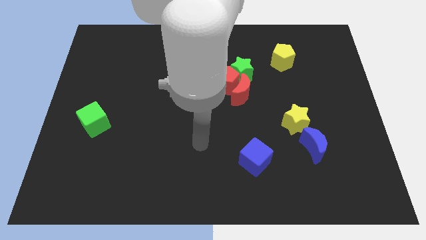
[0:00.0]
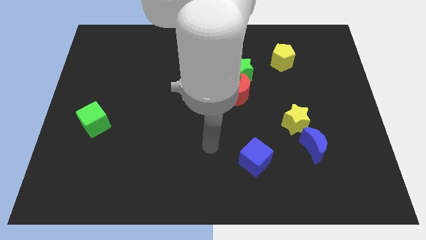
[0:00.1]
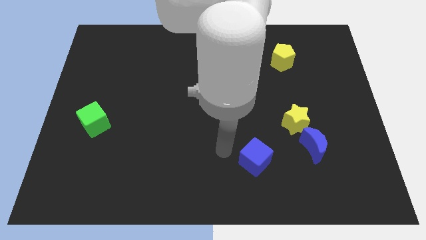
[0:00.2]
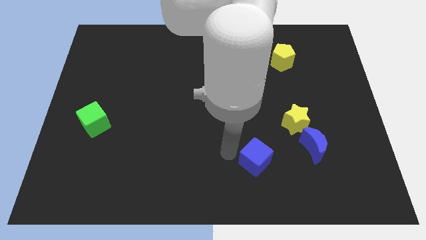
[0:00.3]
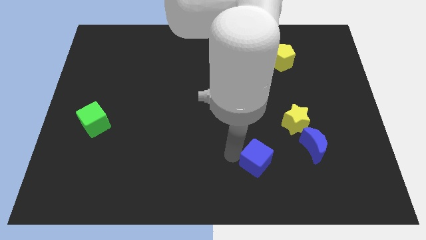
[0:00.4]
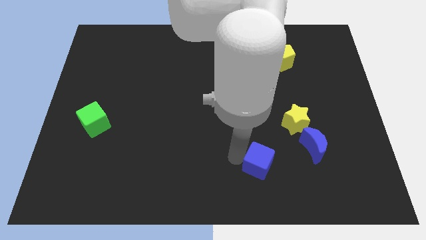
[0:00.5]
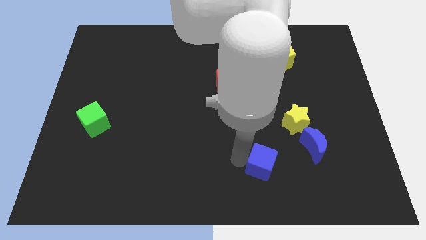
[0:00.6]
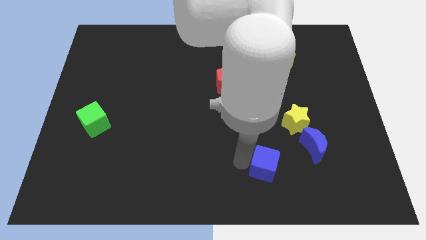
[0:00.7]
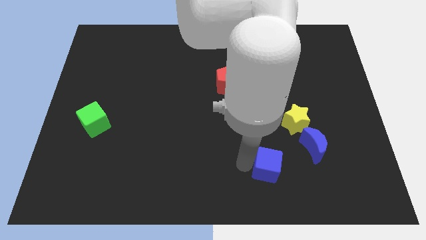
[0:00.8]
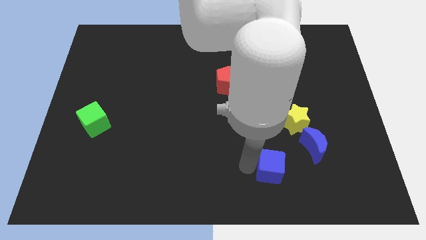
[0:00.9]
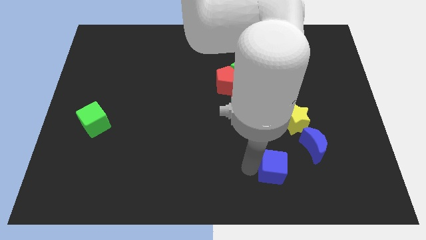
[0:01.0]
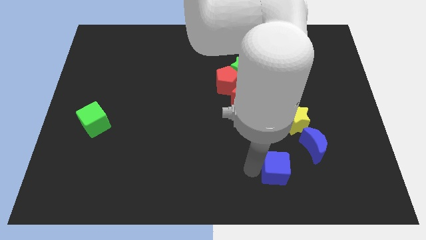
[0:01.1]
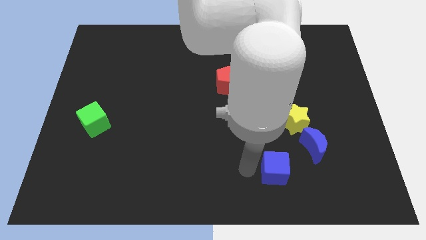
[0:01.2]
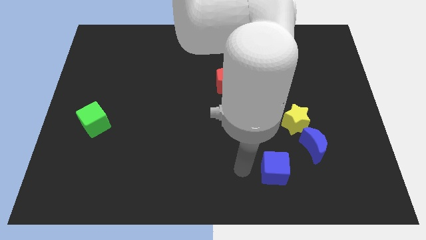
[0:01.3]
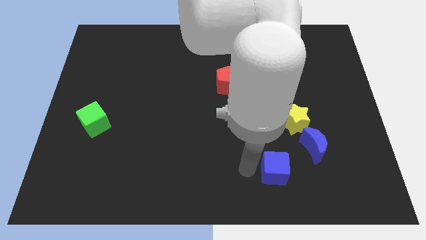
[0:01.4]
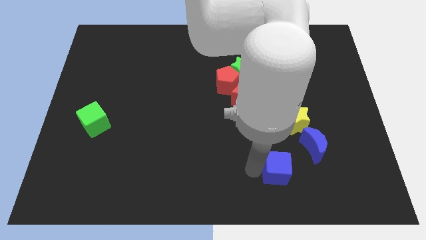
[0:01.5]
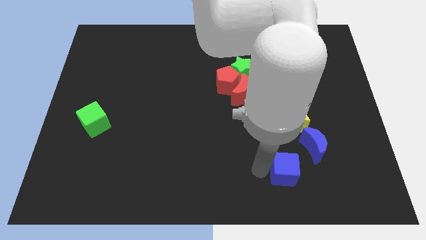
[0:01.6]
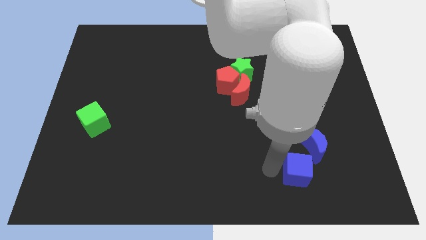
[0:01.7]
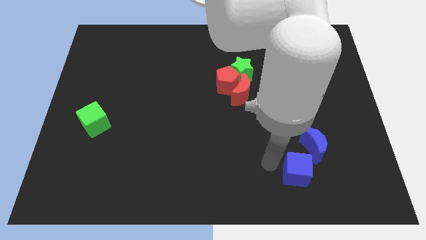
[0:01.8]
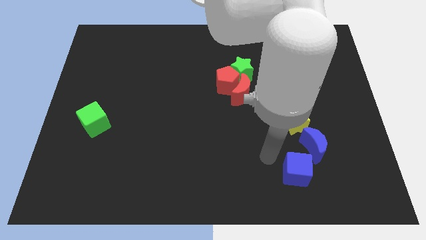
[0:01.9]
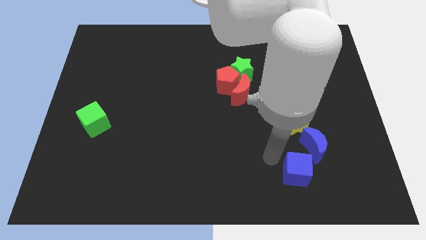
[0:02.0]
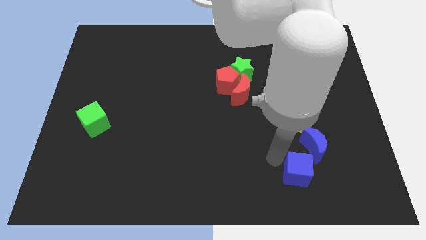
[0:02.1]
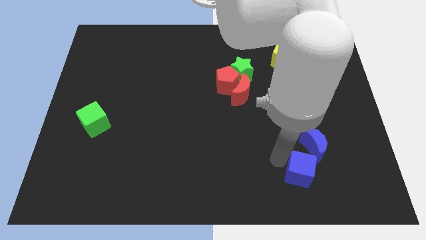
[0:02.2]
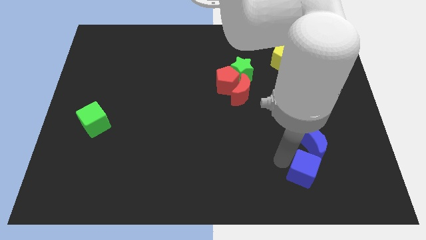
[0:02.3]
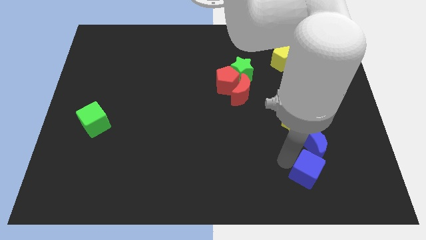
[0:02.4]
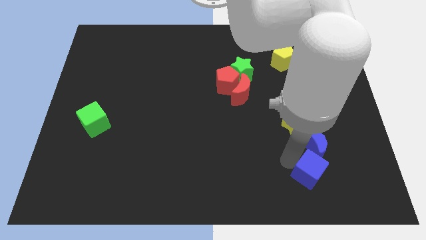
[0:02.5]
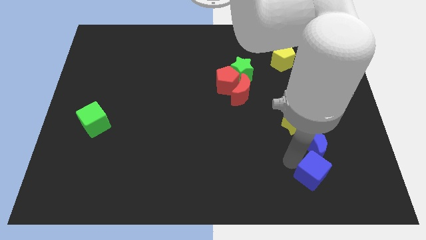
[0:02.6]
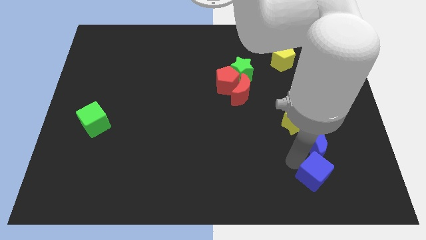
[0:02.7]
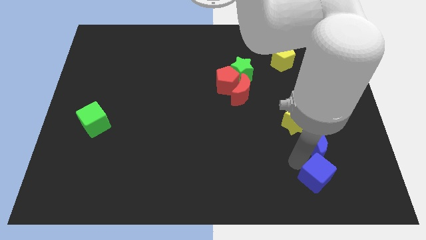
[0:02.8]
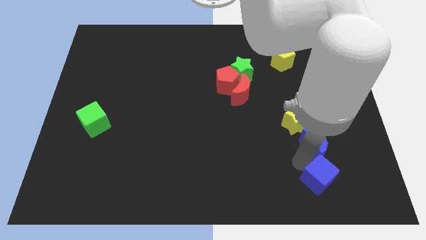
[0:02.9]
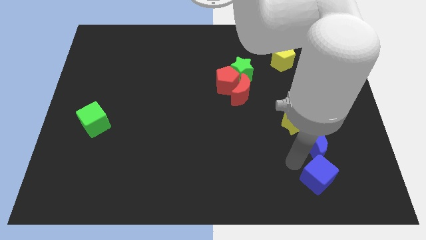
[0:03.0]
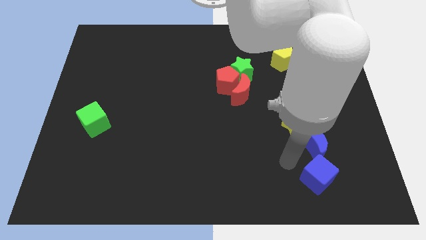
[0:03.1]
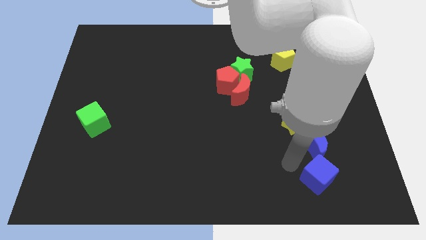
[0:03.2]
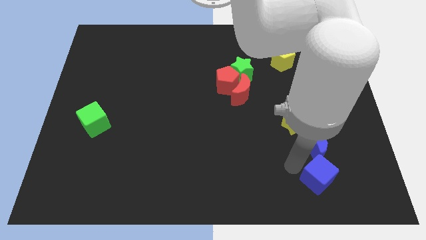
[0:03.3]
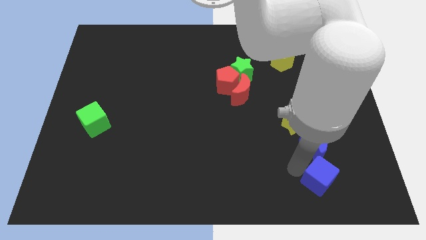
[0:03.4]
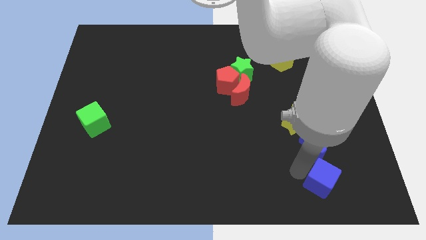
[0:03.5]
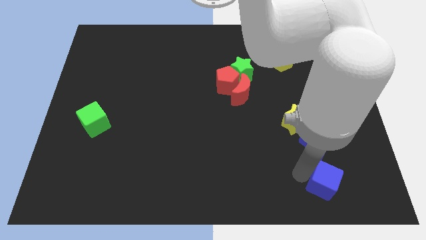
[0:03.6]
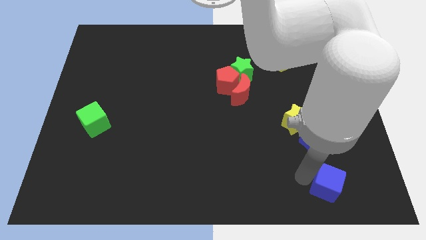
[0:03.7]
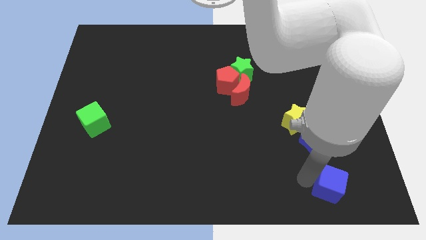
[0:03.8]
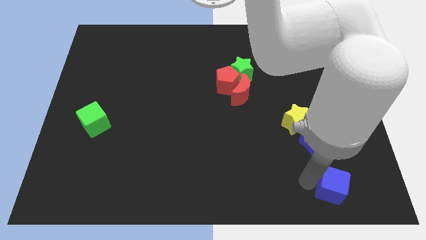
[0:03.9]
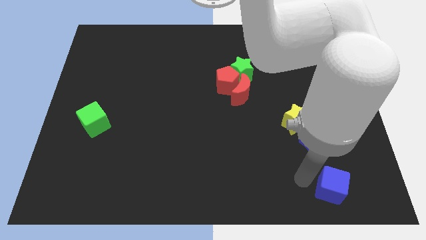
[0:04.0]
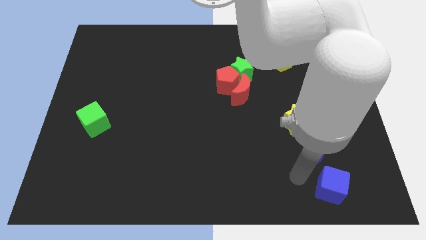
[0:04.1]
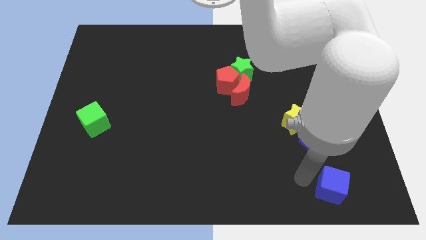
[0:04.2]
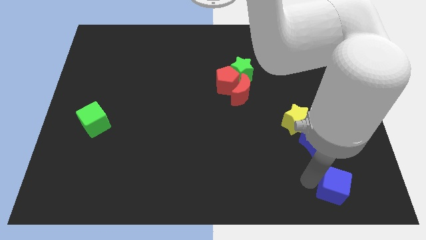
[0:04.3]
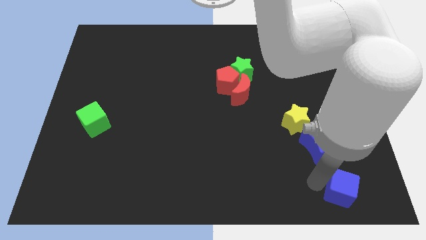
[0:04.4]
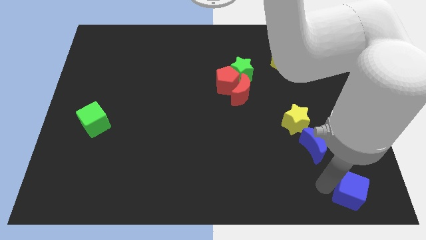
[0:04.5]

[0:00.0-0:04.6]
move the blue cube to the bottom right

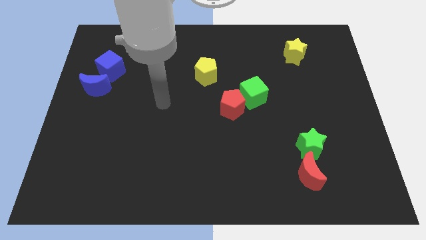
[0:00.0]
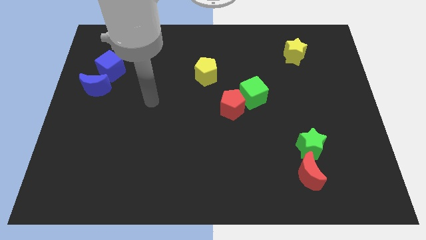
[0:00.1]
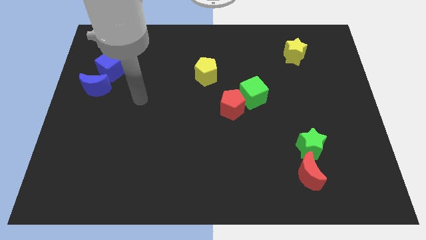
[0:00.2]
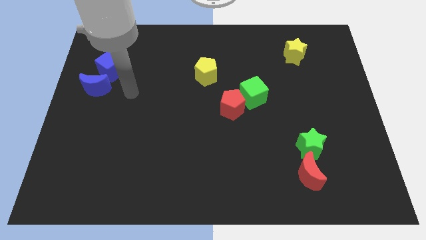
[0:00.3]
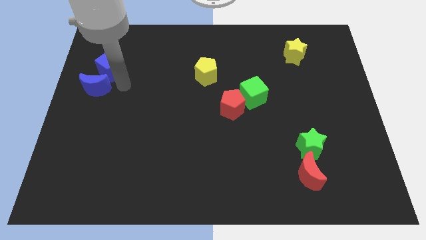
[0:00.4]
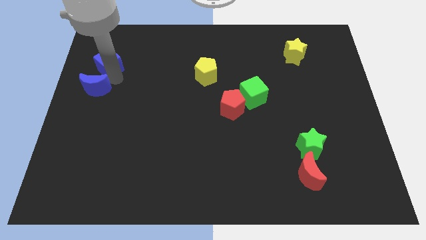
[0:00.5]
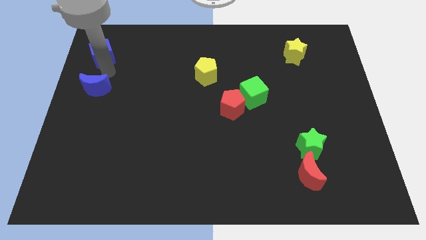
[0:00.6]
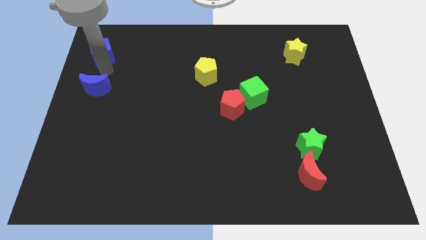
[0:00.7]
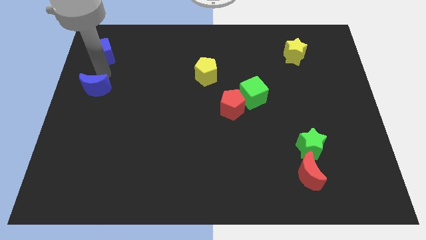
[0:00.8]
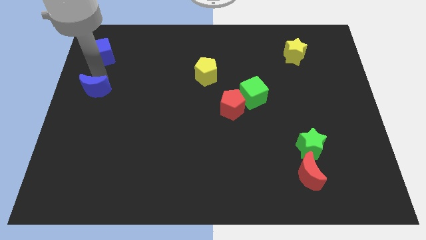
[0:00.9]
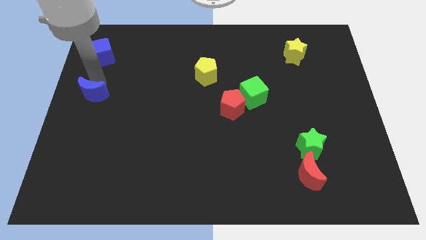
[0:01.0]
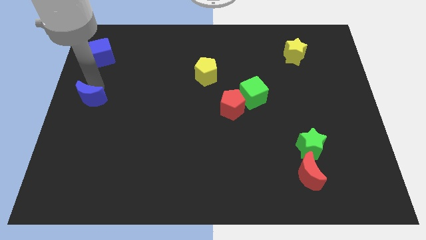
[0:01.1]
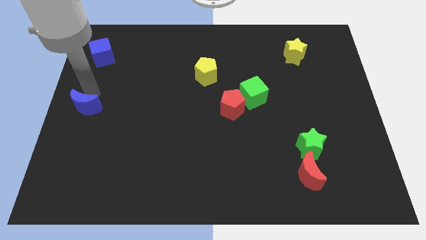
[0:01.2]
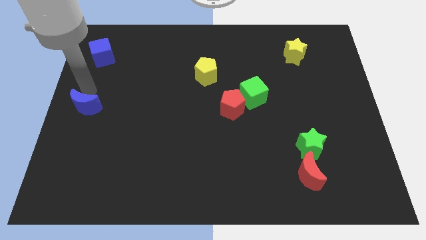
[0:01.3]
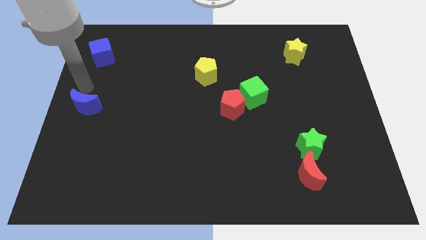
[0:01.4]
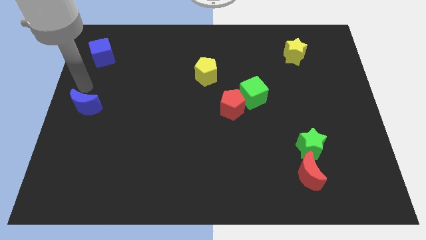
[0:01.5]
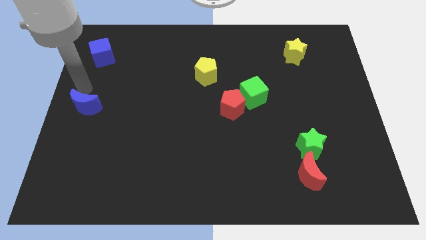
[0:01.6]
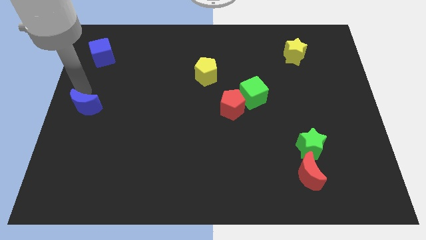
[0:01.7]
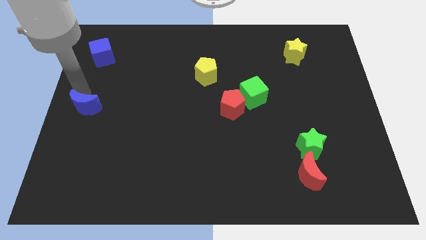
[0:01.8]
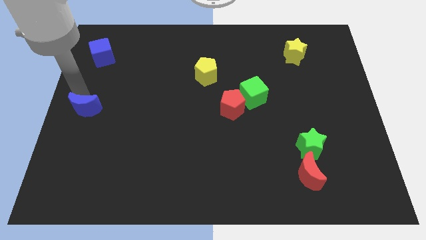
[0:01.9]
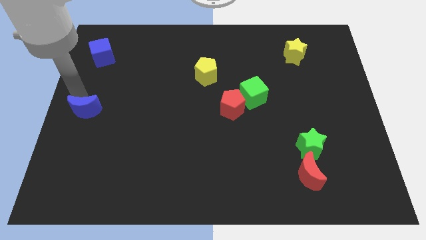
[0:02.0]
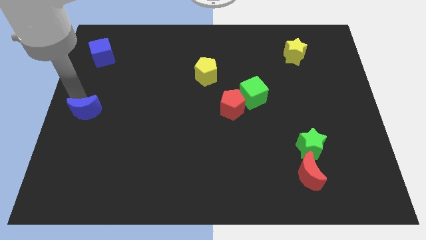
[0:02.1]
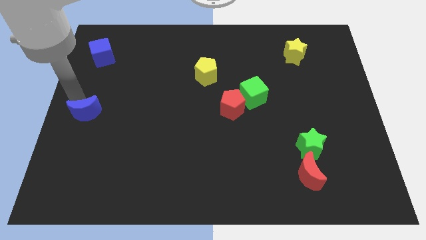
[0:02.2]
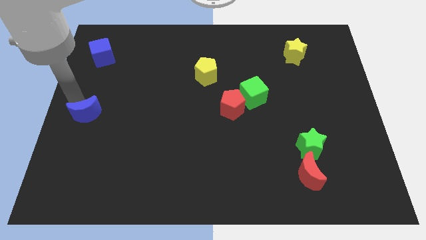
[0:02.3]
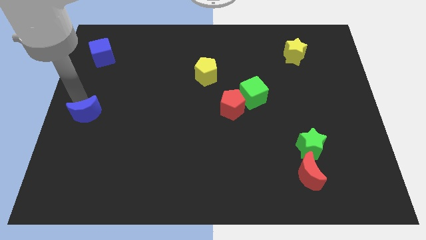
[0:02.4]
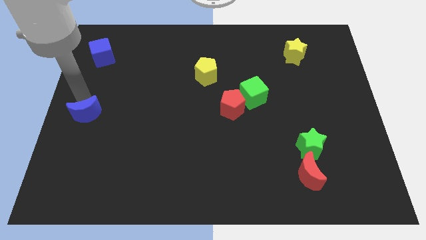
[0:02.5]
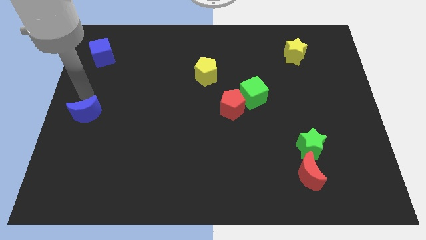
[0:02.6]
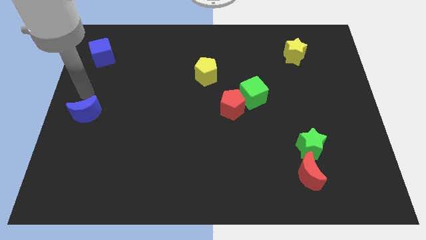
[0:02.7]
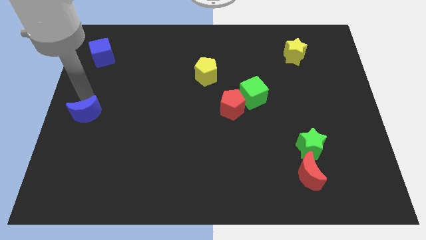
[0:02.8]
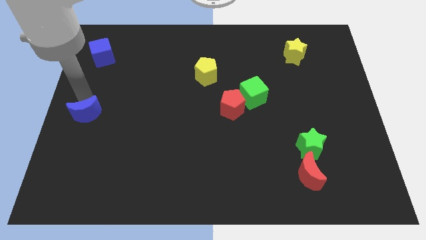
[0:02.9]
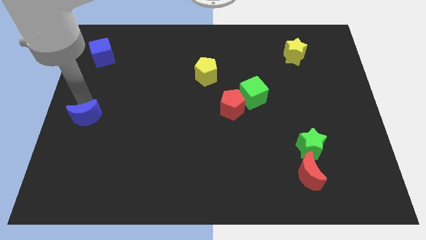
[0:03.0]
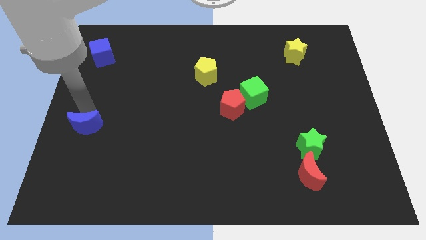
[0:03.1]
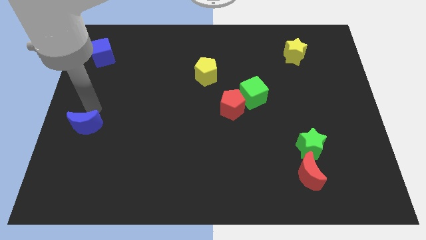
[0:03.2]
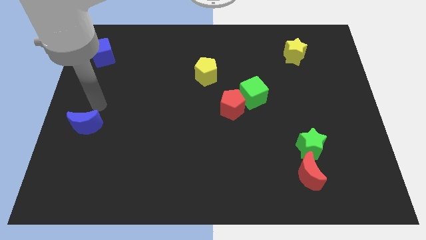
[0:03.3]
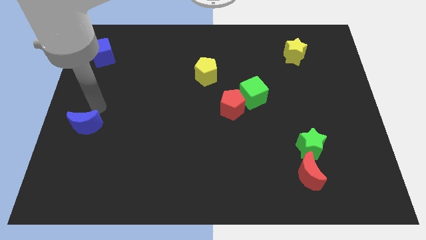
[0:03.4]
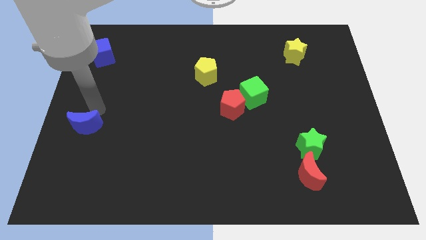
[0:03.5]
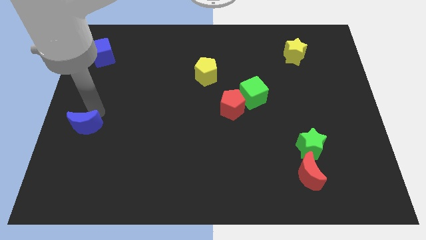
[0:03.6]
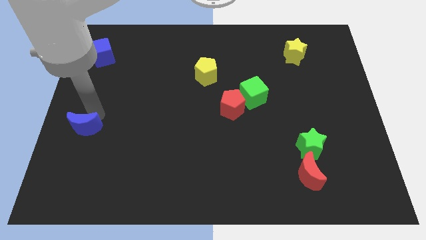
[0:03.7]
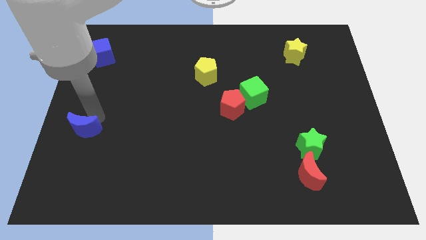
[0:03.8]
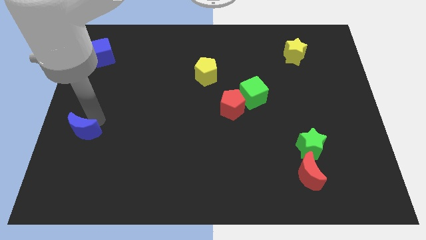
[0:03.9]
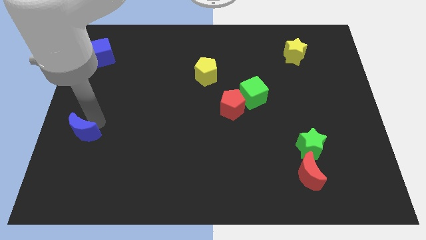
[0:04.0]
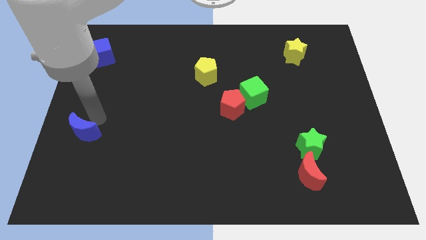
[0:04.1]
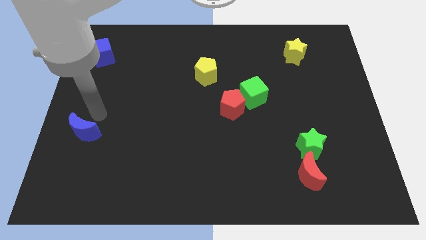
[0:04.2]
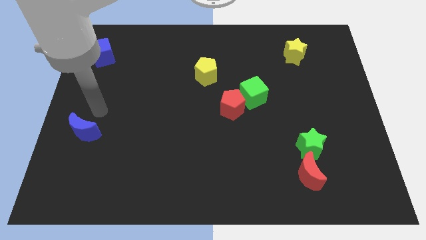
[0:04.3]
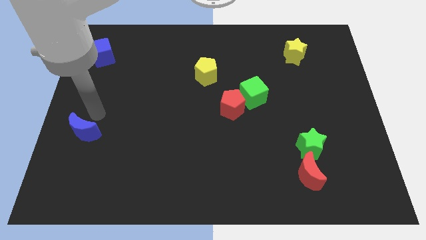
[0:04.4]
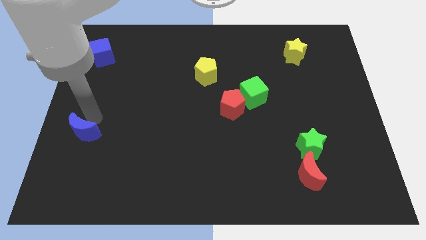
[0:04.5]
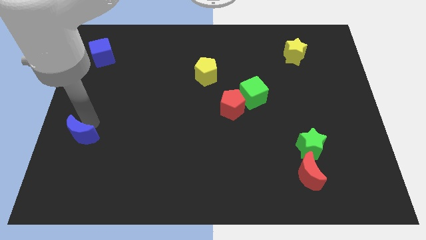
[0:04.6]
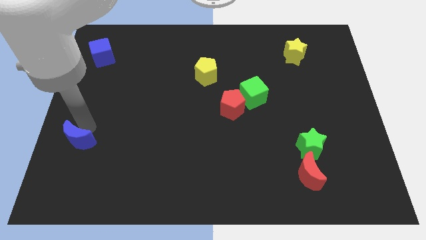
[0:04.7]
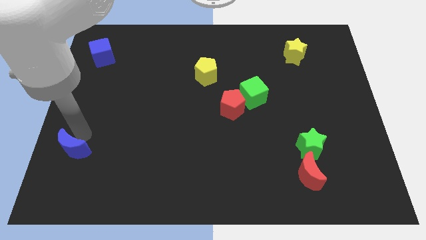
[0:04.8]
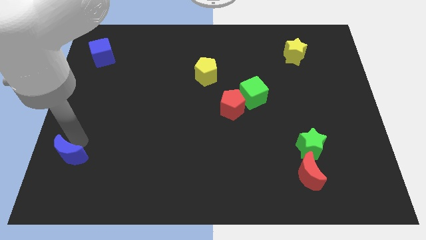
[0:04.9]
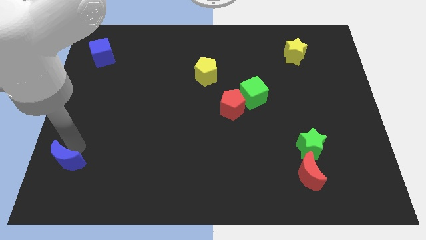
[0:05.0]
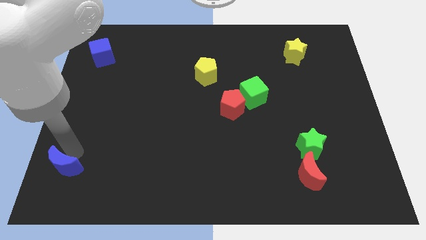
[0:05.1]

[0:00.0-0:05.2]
push the blue moon to the bottom left corner
